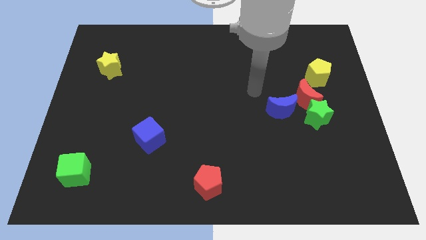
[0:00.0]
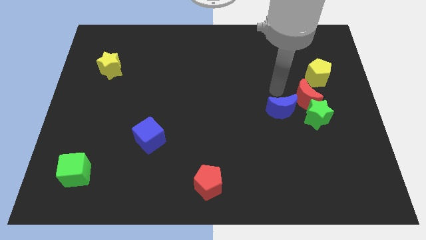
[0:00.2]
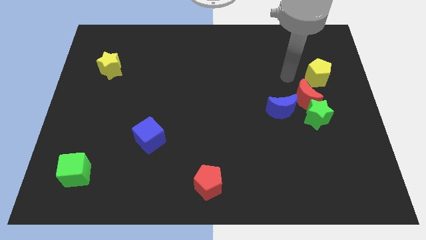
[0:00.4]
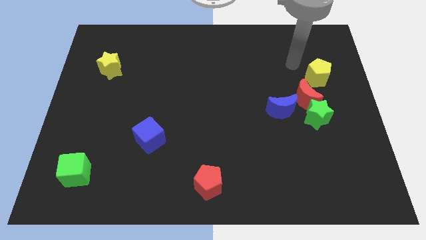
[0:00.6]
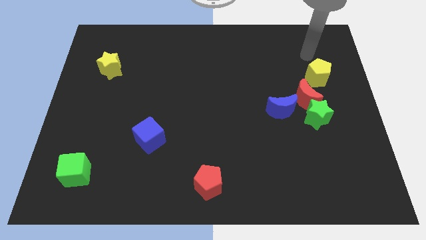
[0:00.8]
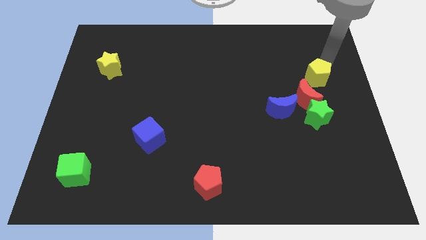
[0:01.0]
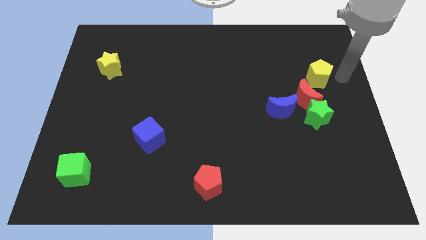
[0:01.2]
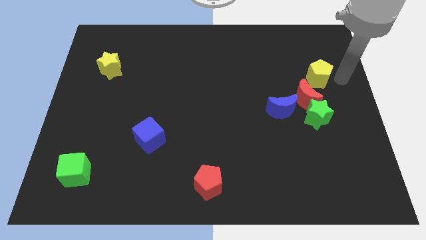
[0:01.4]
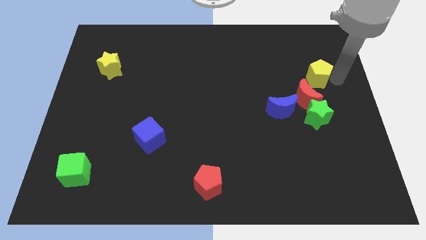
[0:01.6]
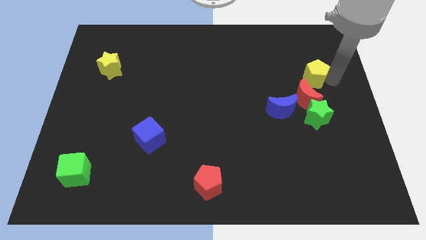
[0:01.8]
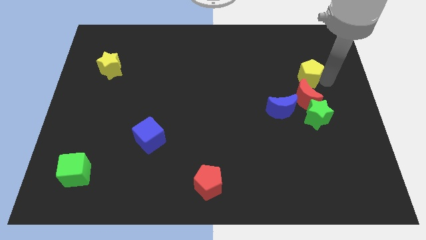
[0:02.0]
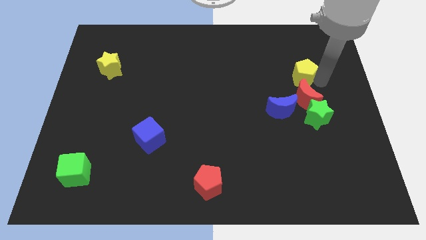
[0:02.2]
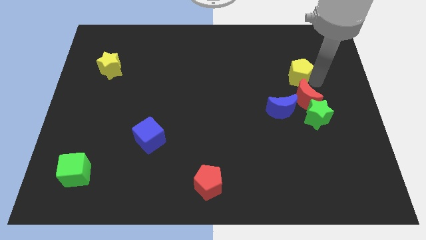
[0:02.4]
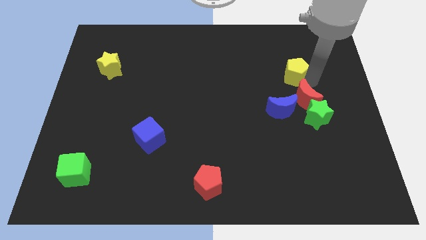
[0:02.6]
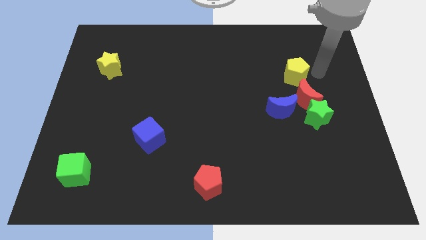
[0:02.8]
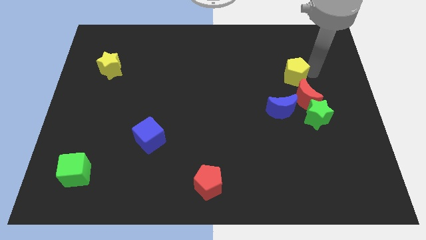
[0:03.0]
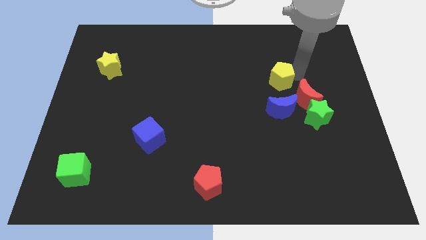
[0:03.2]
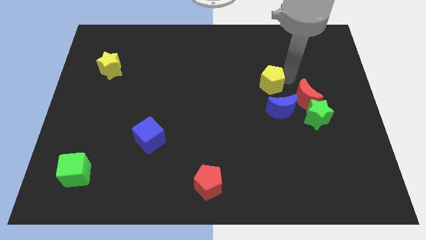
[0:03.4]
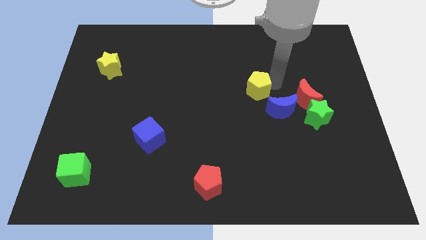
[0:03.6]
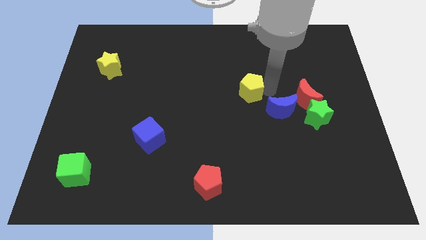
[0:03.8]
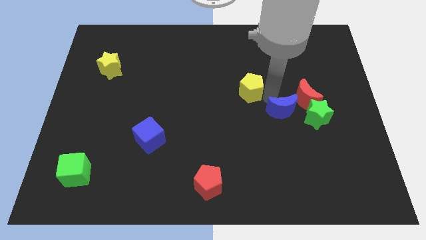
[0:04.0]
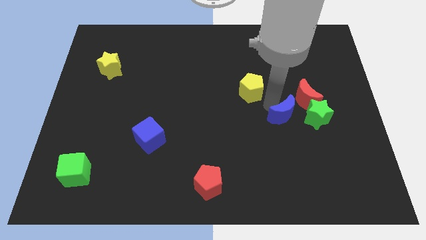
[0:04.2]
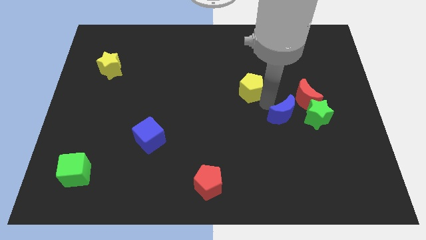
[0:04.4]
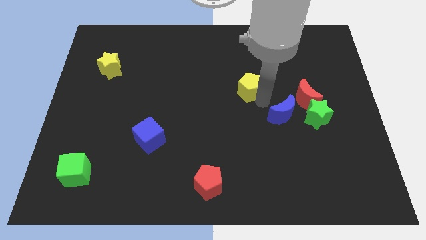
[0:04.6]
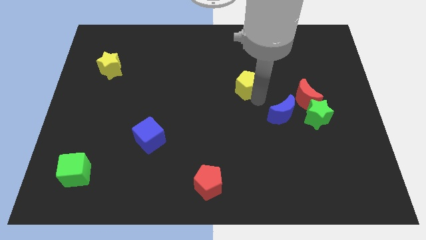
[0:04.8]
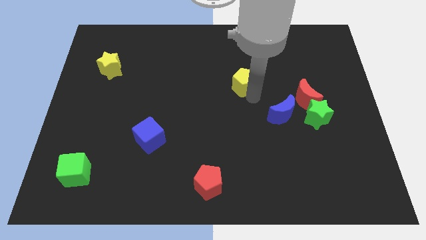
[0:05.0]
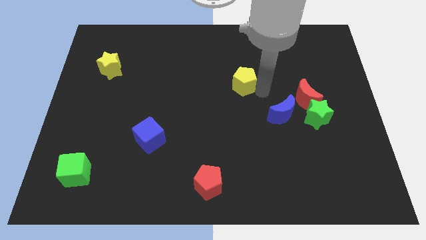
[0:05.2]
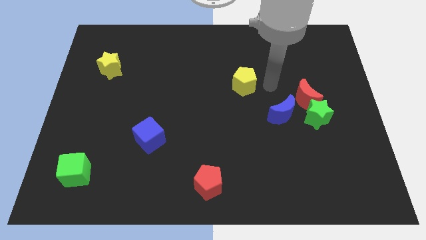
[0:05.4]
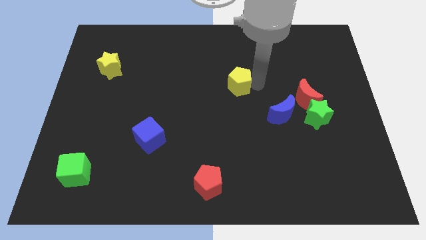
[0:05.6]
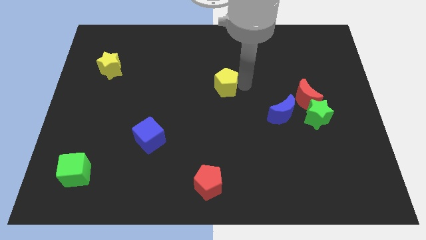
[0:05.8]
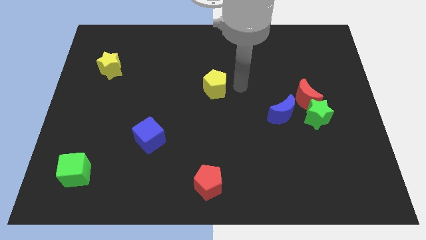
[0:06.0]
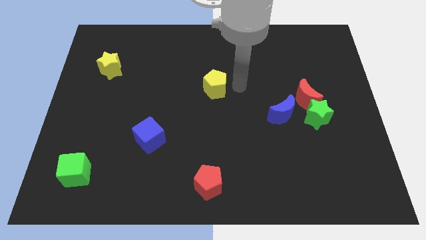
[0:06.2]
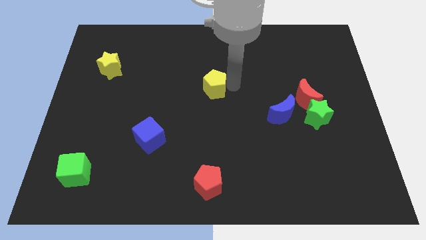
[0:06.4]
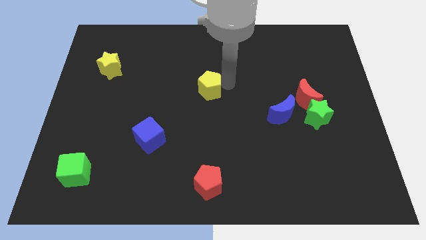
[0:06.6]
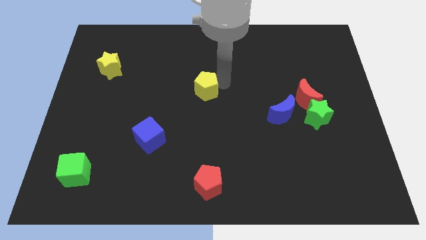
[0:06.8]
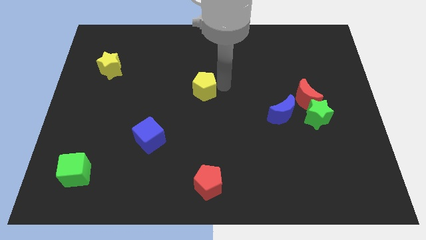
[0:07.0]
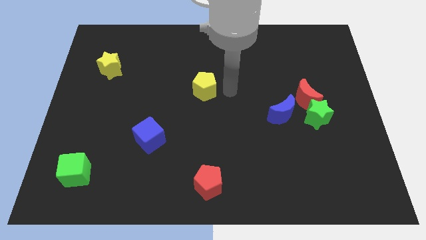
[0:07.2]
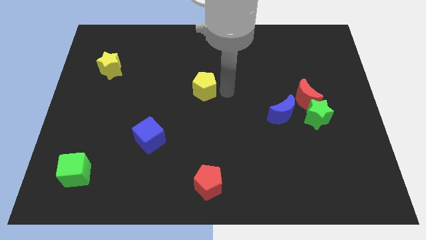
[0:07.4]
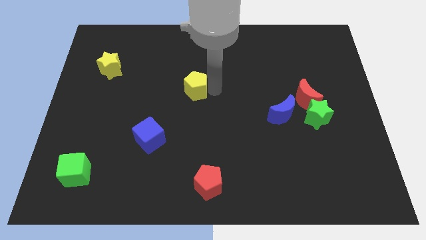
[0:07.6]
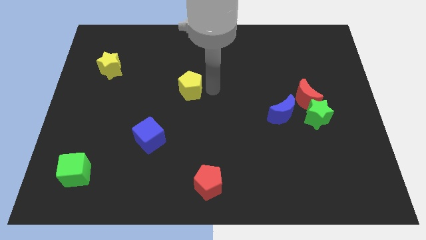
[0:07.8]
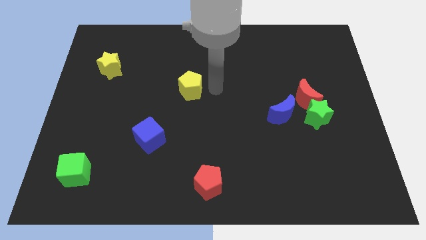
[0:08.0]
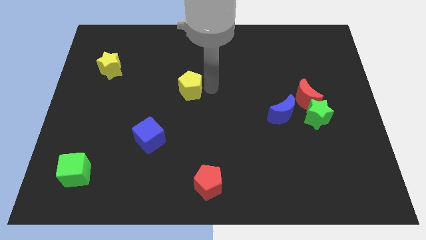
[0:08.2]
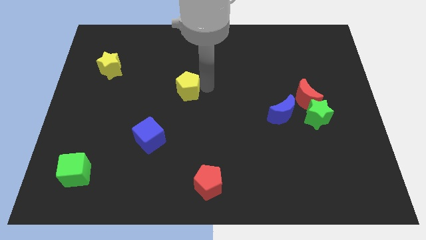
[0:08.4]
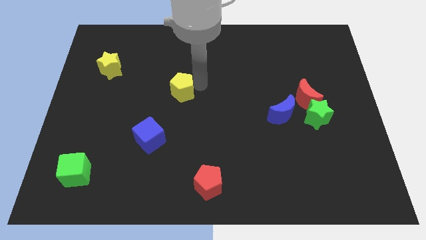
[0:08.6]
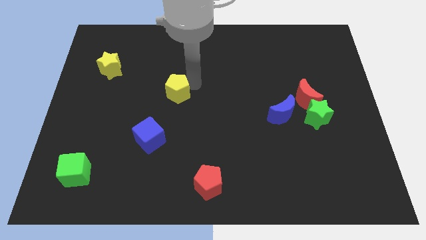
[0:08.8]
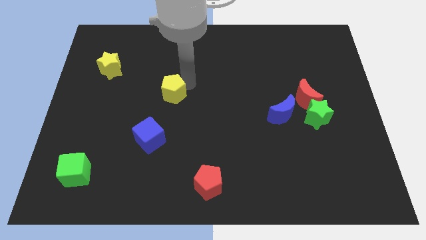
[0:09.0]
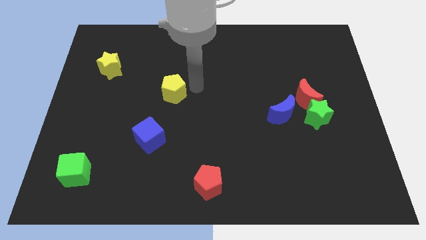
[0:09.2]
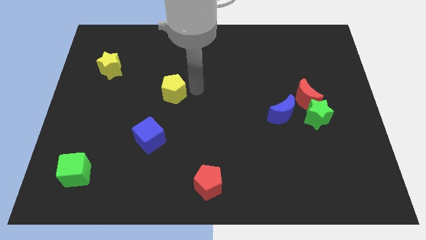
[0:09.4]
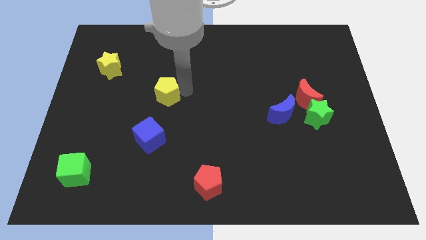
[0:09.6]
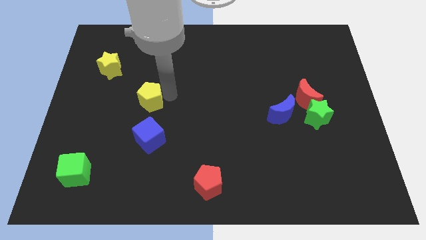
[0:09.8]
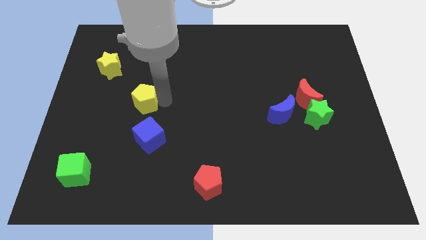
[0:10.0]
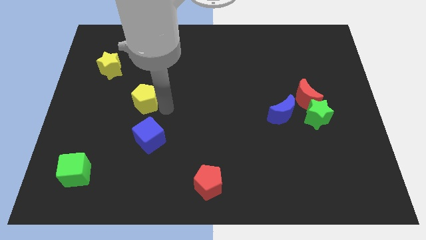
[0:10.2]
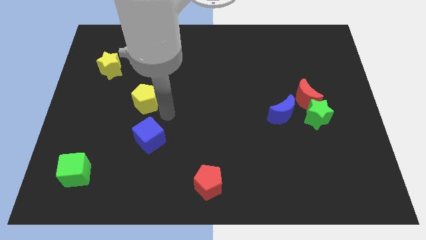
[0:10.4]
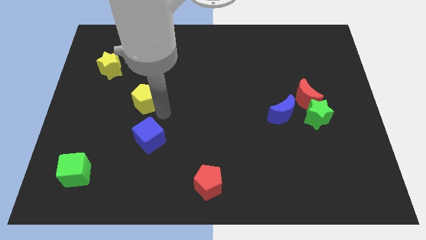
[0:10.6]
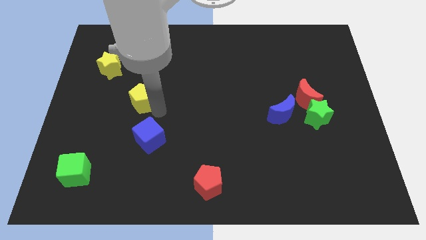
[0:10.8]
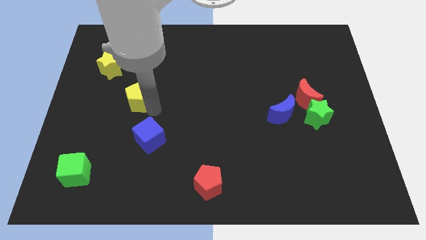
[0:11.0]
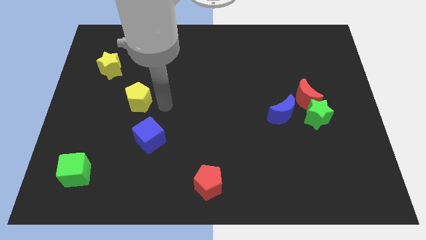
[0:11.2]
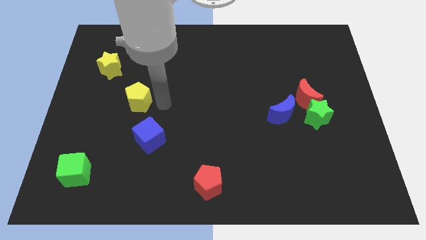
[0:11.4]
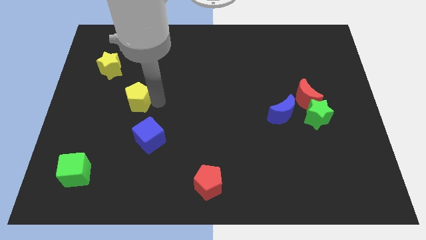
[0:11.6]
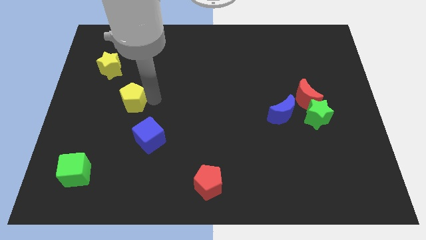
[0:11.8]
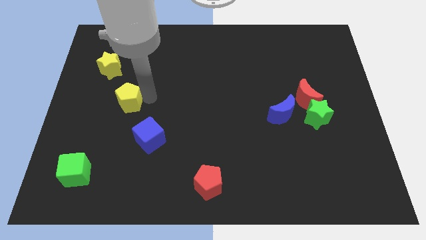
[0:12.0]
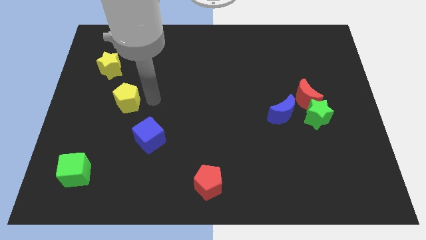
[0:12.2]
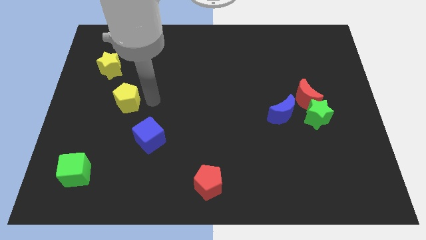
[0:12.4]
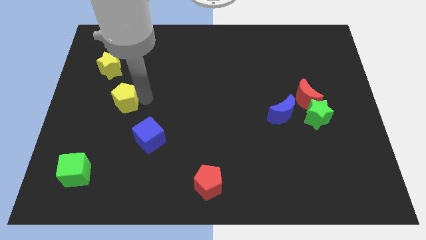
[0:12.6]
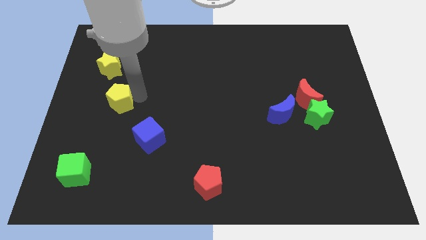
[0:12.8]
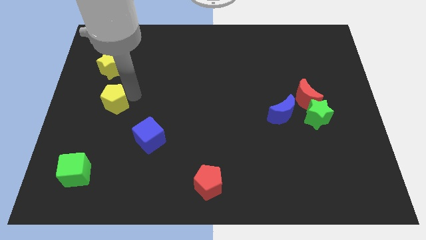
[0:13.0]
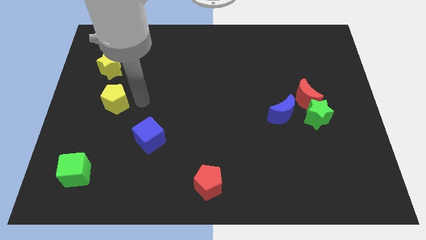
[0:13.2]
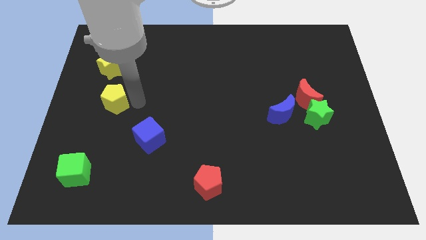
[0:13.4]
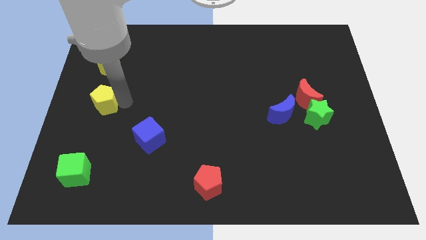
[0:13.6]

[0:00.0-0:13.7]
push the yellow pentagon to the left side of the board
